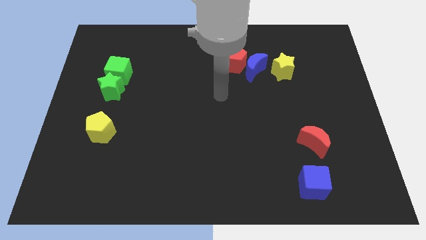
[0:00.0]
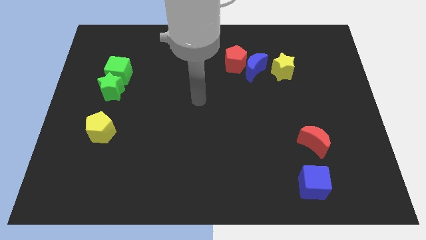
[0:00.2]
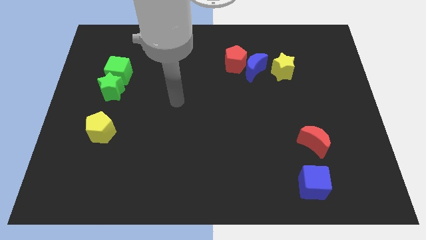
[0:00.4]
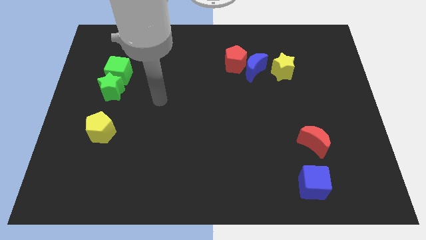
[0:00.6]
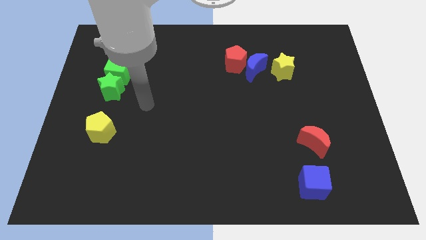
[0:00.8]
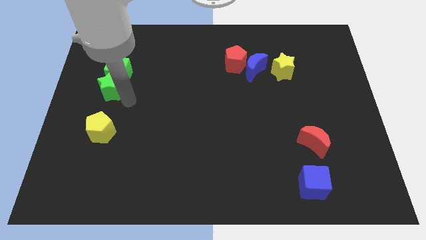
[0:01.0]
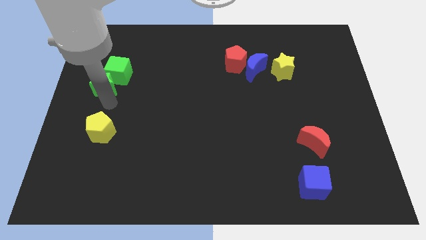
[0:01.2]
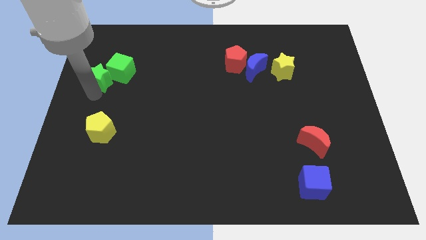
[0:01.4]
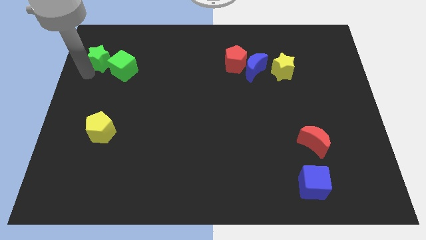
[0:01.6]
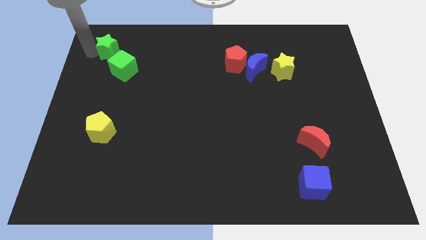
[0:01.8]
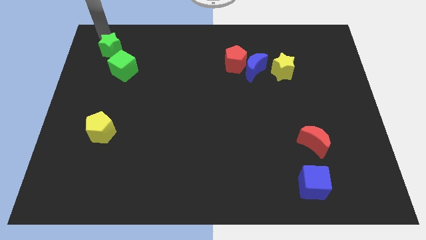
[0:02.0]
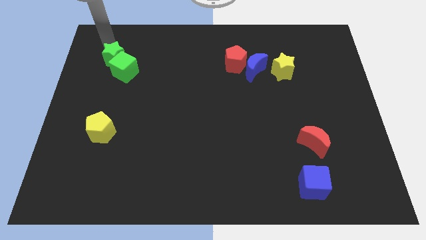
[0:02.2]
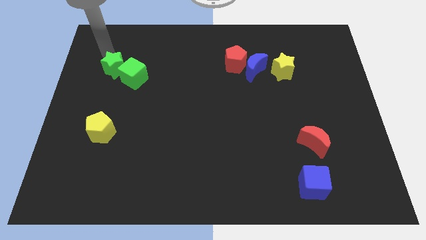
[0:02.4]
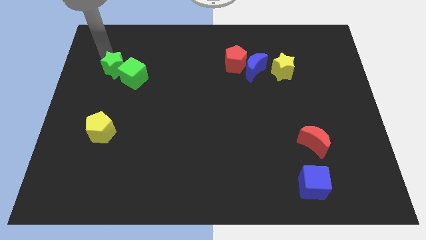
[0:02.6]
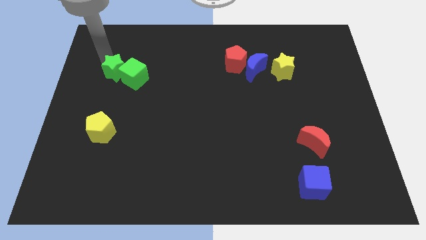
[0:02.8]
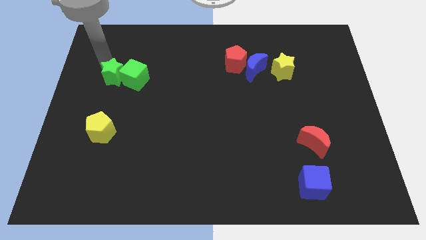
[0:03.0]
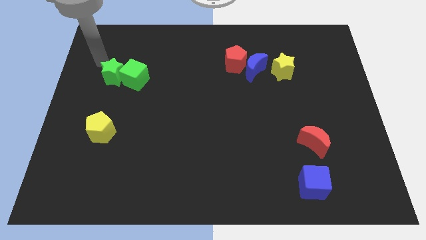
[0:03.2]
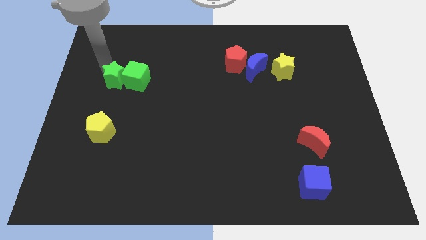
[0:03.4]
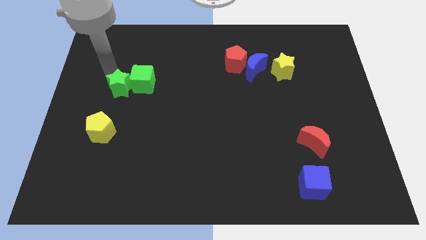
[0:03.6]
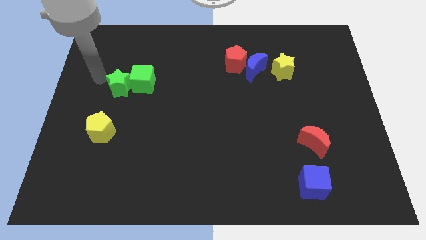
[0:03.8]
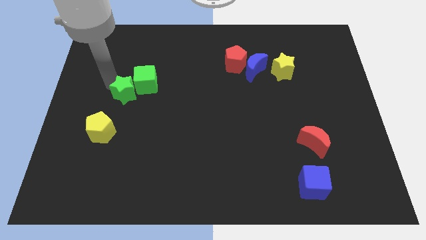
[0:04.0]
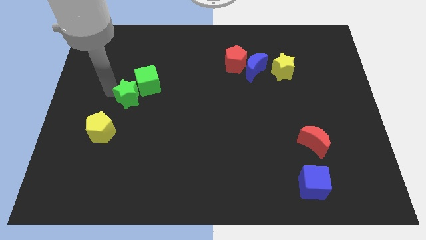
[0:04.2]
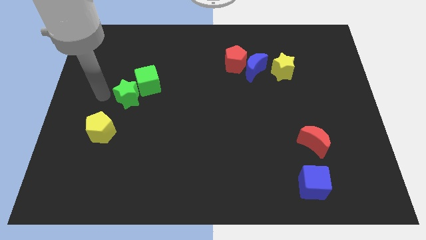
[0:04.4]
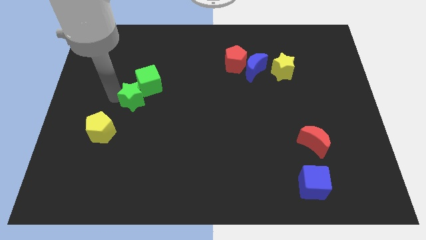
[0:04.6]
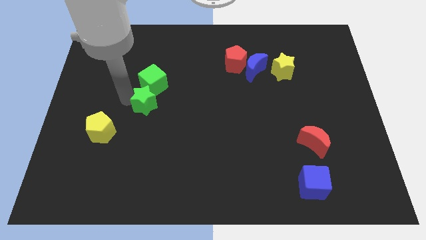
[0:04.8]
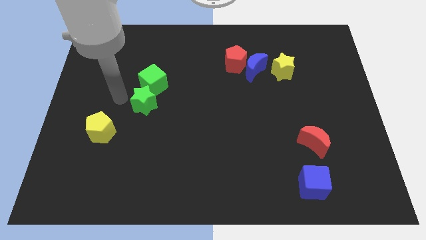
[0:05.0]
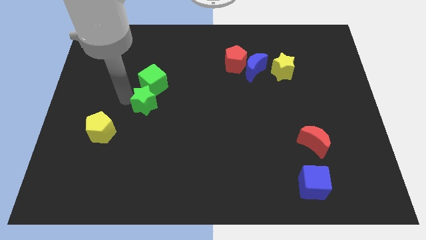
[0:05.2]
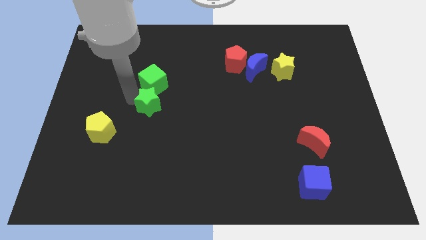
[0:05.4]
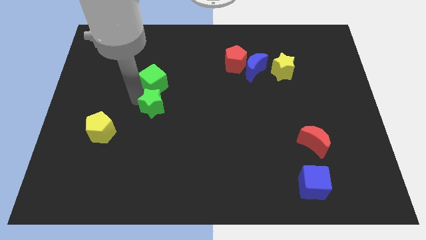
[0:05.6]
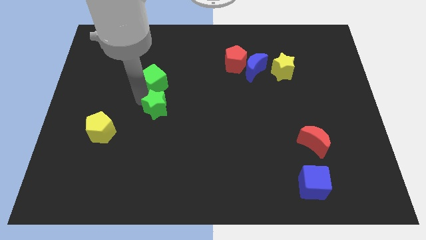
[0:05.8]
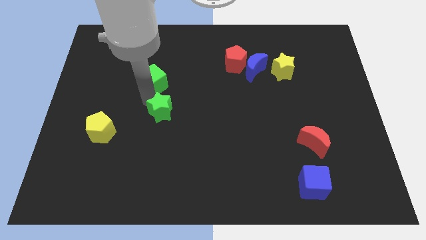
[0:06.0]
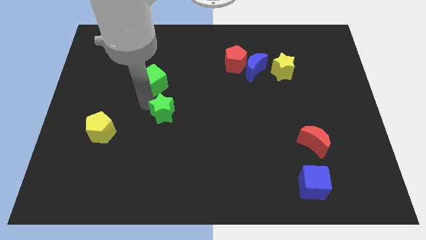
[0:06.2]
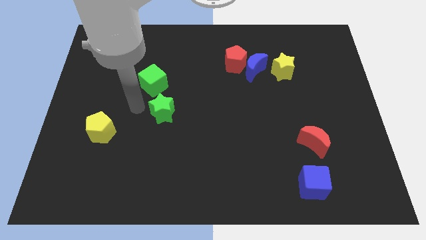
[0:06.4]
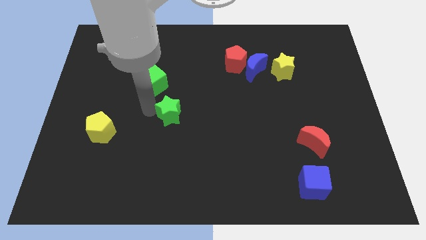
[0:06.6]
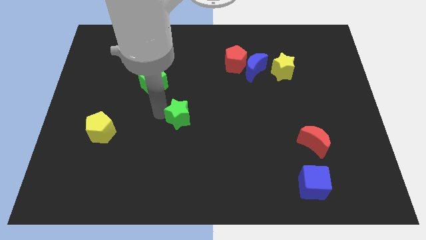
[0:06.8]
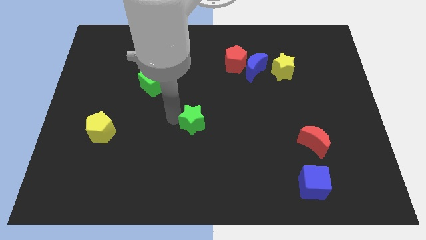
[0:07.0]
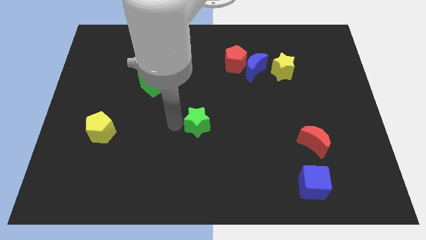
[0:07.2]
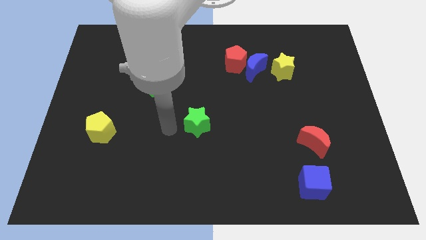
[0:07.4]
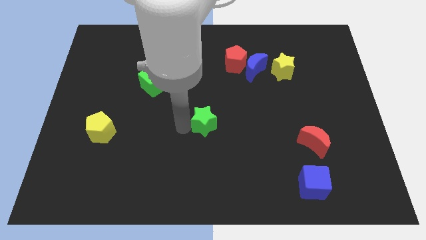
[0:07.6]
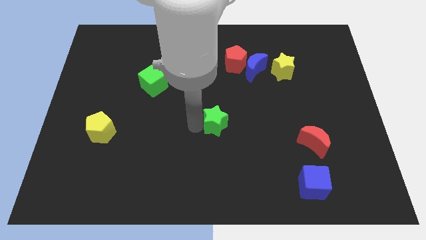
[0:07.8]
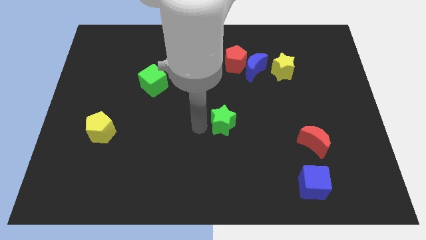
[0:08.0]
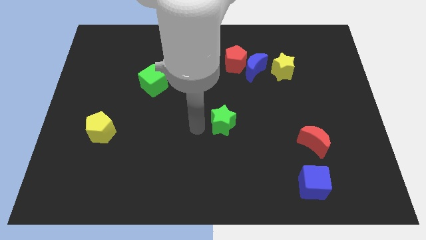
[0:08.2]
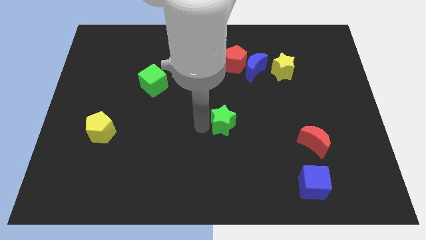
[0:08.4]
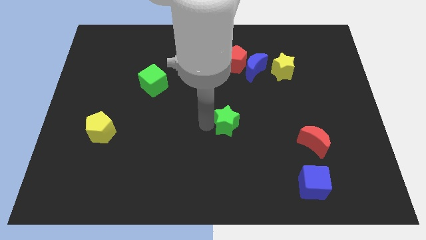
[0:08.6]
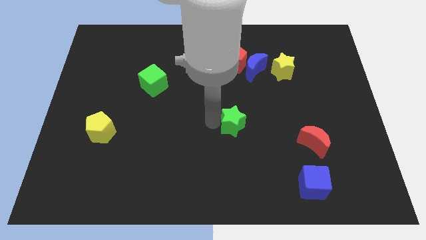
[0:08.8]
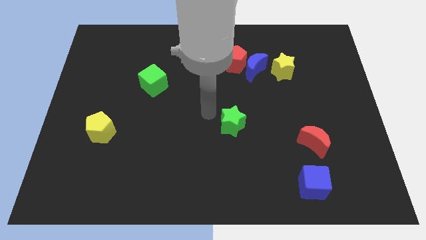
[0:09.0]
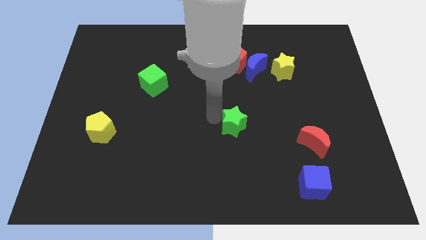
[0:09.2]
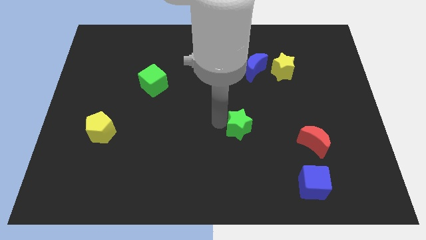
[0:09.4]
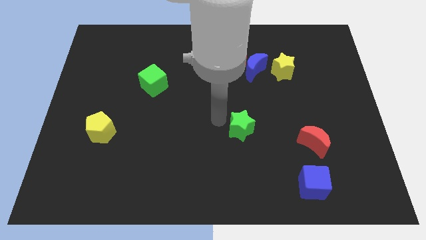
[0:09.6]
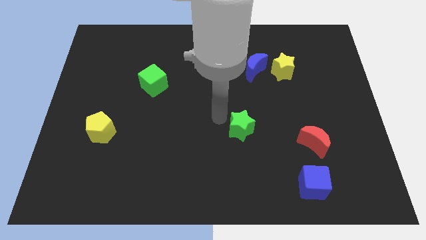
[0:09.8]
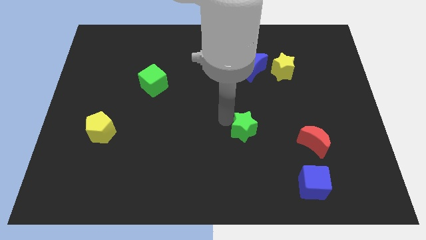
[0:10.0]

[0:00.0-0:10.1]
put the green star left of the red moon

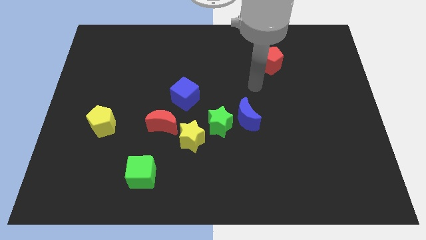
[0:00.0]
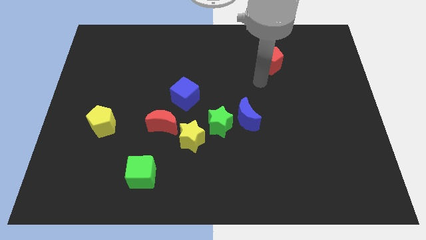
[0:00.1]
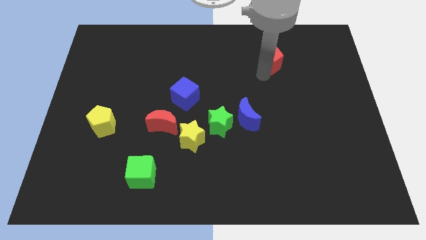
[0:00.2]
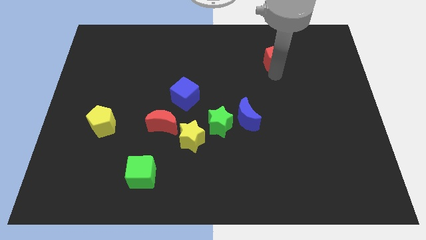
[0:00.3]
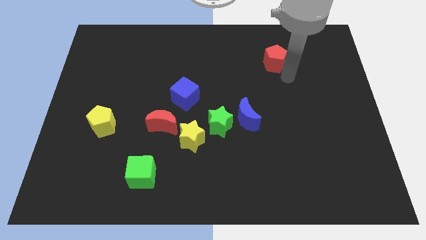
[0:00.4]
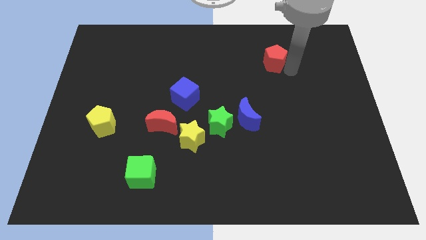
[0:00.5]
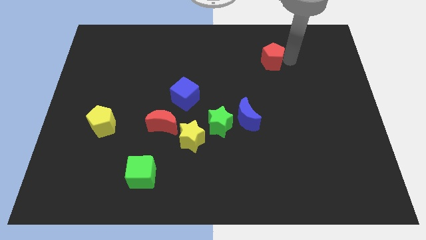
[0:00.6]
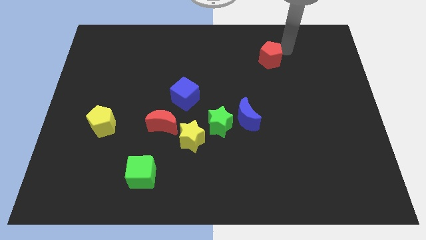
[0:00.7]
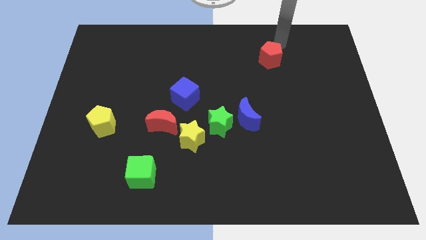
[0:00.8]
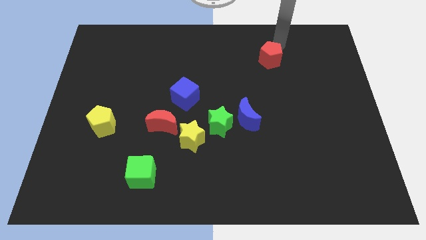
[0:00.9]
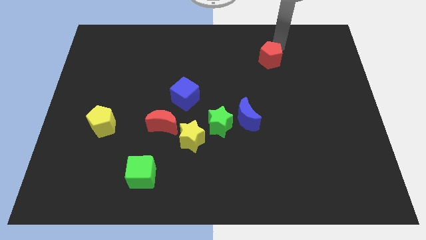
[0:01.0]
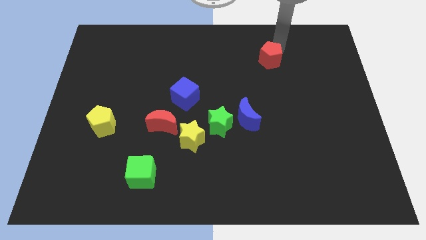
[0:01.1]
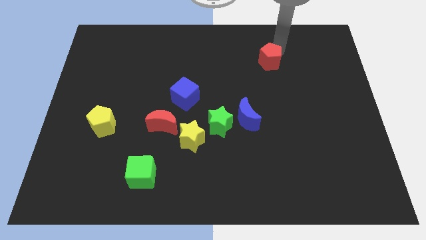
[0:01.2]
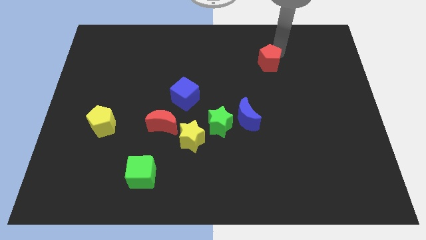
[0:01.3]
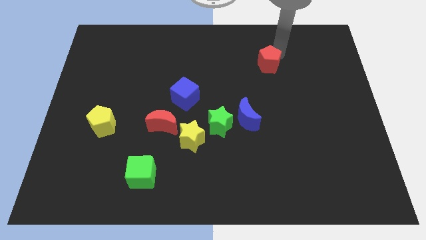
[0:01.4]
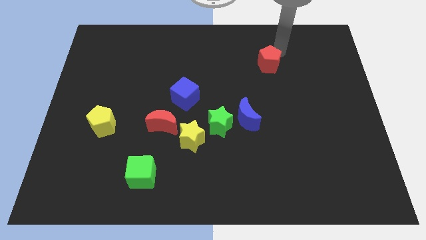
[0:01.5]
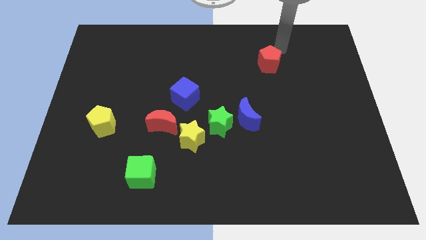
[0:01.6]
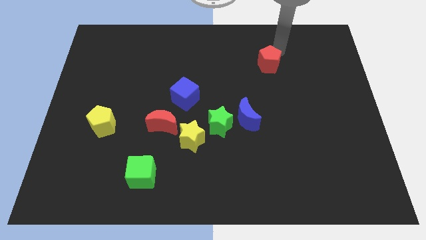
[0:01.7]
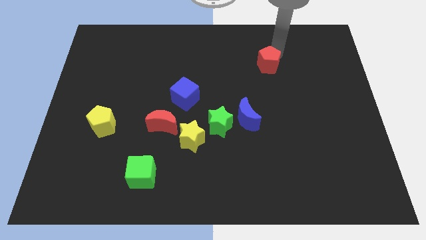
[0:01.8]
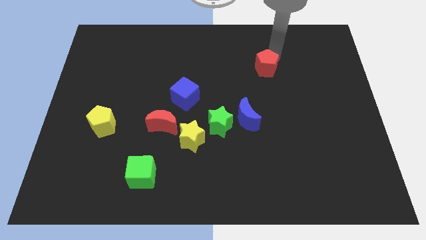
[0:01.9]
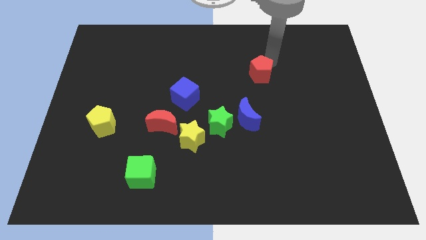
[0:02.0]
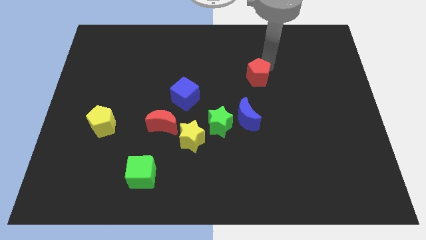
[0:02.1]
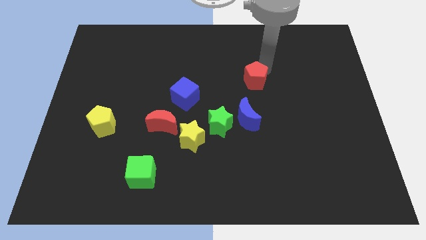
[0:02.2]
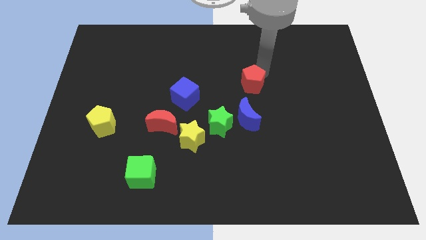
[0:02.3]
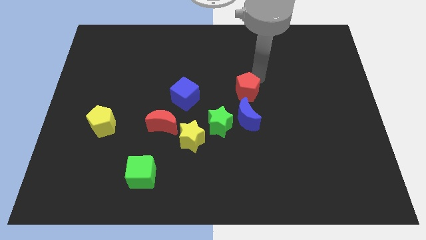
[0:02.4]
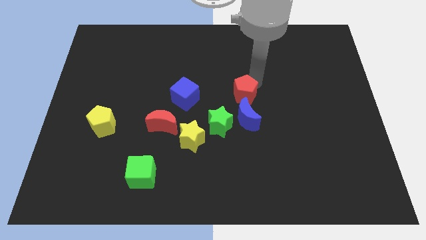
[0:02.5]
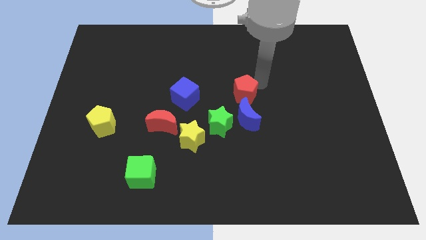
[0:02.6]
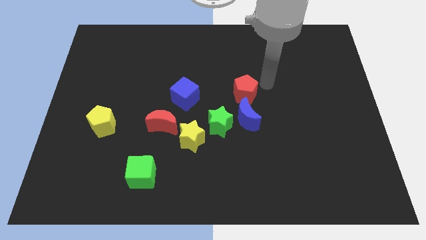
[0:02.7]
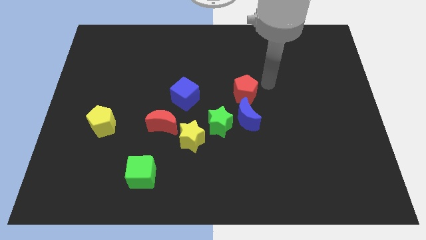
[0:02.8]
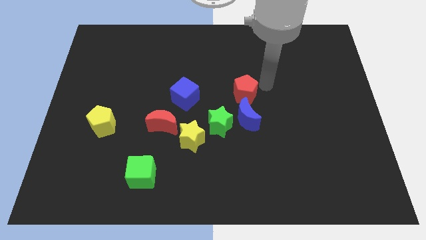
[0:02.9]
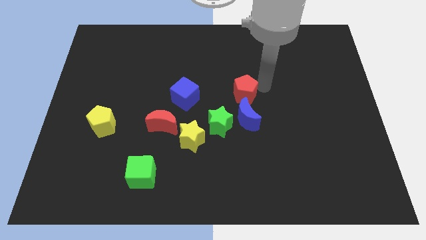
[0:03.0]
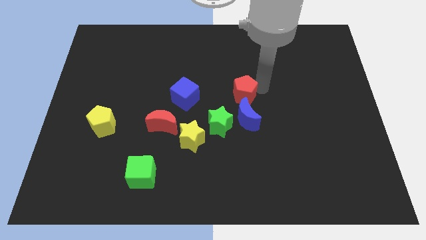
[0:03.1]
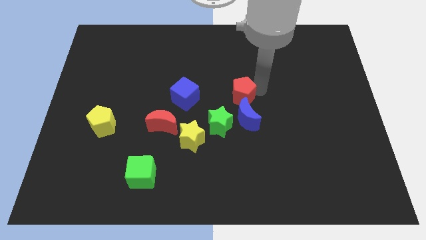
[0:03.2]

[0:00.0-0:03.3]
move the red pentagon to the top left of the blue moon
